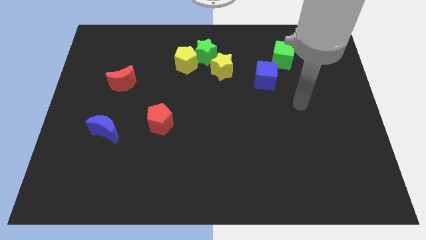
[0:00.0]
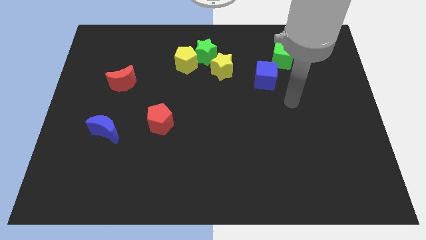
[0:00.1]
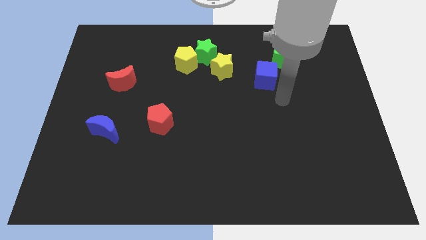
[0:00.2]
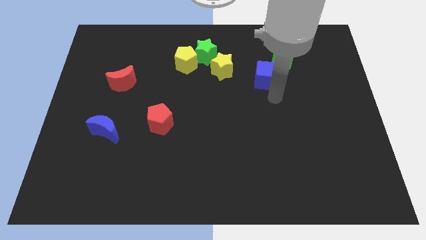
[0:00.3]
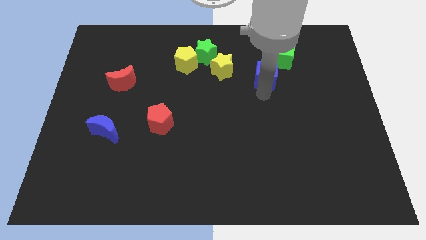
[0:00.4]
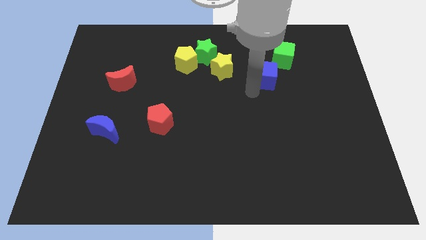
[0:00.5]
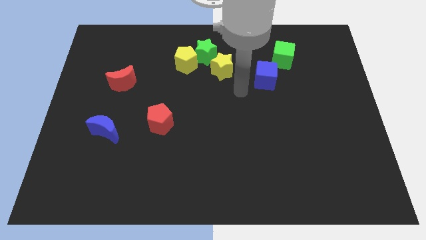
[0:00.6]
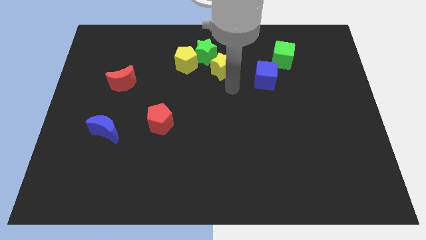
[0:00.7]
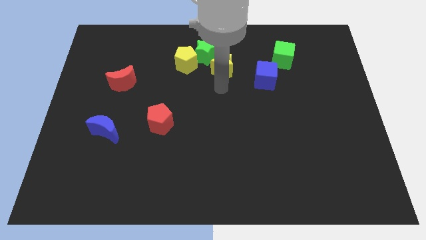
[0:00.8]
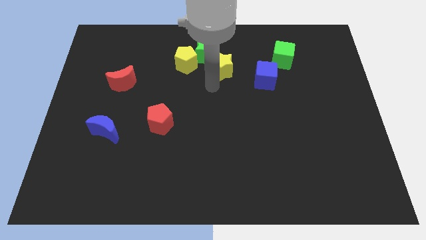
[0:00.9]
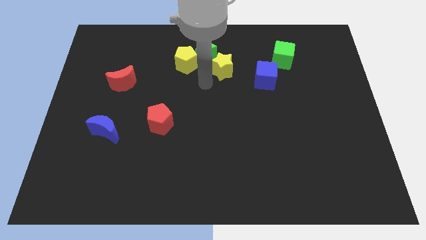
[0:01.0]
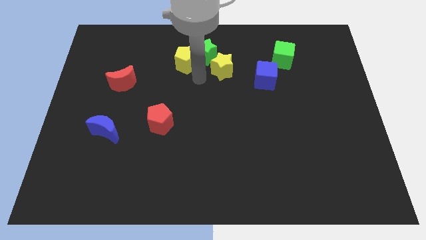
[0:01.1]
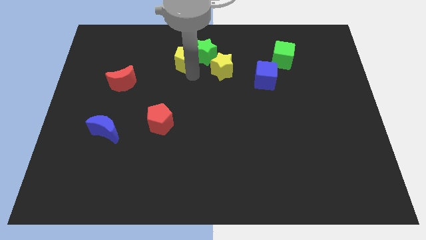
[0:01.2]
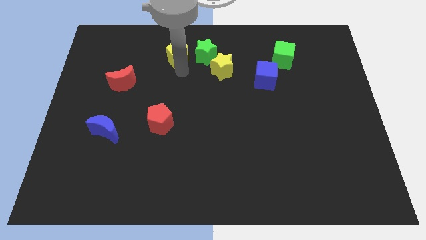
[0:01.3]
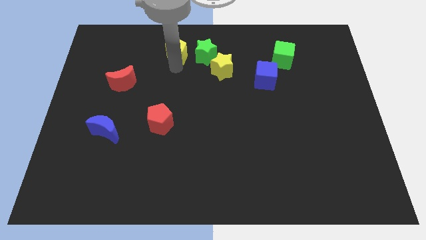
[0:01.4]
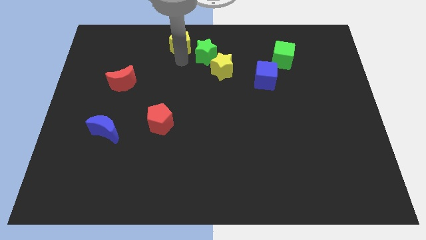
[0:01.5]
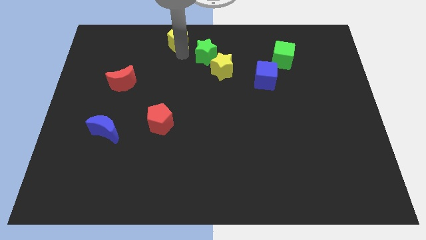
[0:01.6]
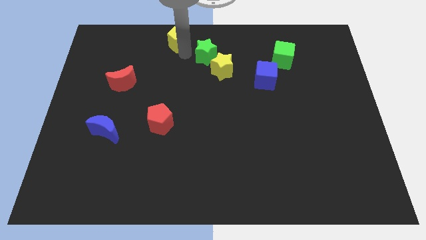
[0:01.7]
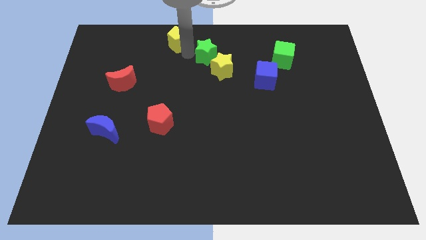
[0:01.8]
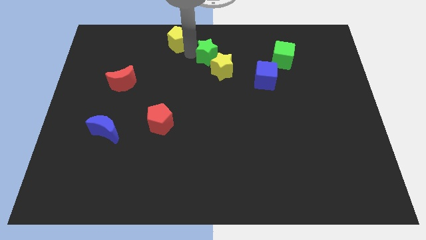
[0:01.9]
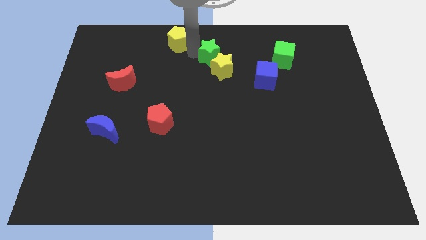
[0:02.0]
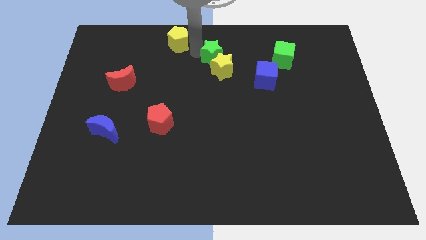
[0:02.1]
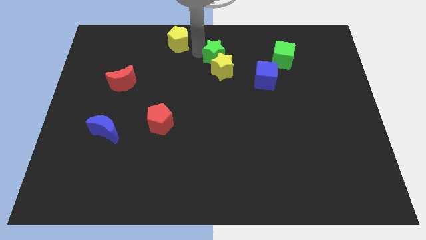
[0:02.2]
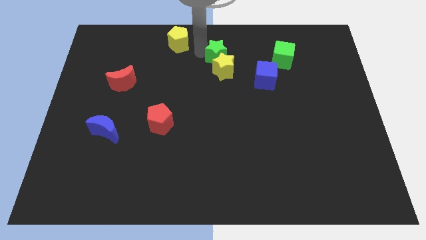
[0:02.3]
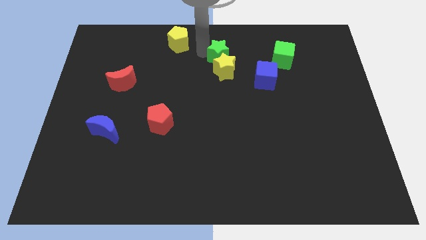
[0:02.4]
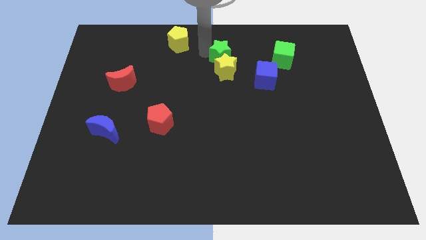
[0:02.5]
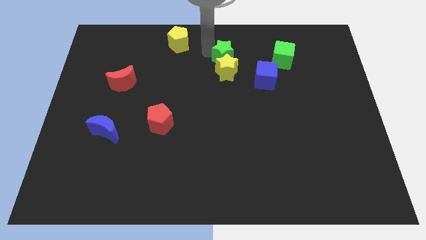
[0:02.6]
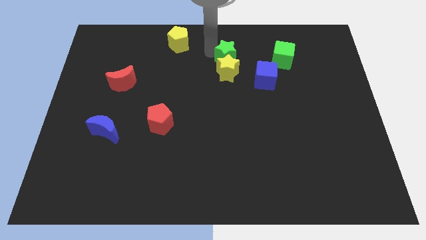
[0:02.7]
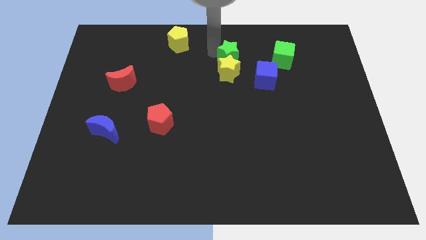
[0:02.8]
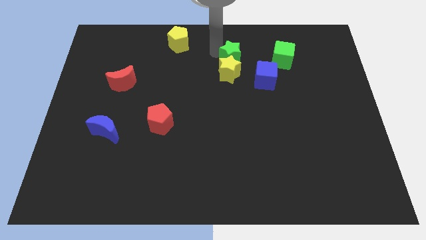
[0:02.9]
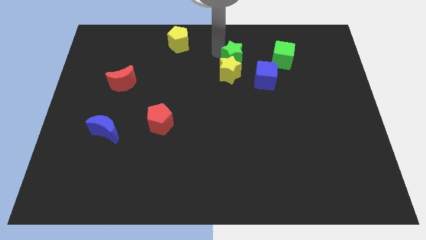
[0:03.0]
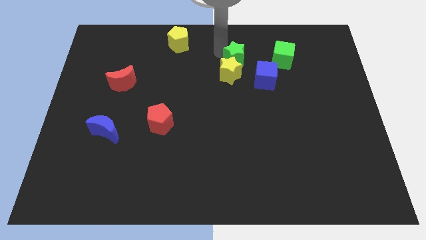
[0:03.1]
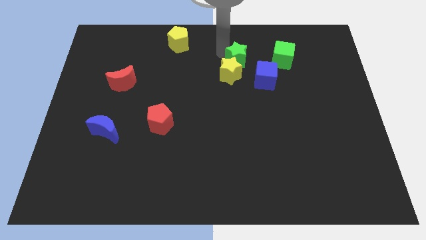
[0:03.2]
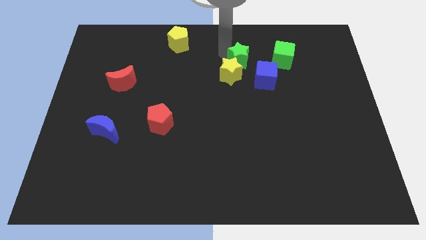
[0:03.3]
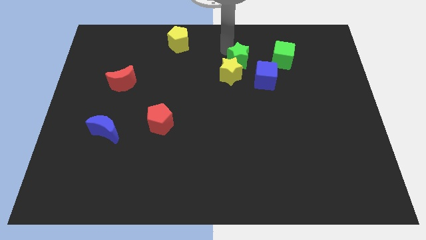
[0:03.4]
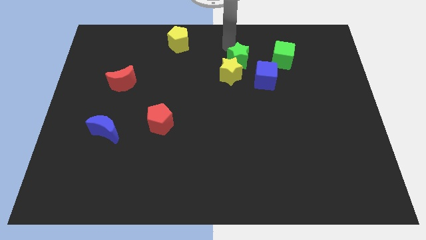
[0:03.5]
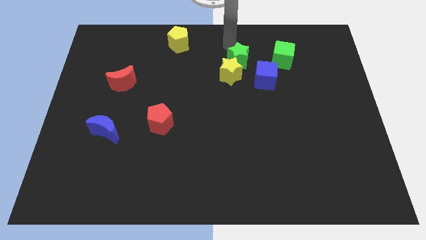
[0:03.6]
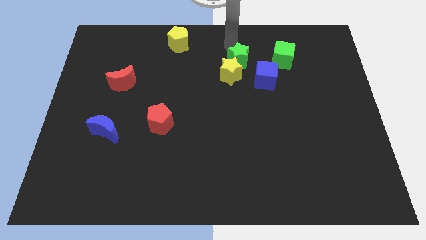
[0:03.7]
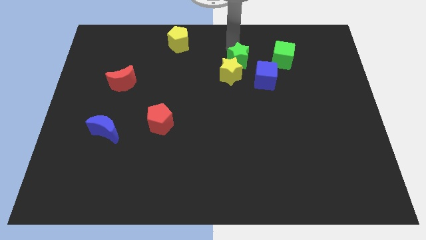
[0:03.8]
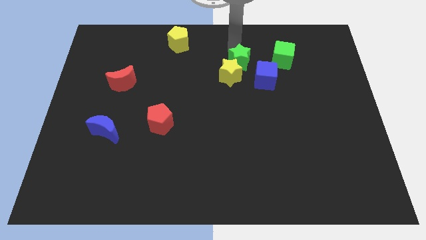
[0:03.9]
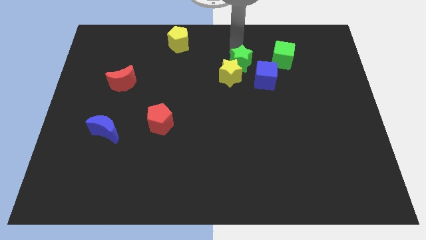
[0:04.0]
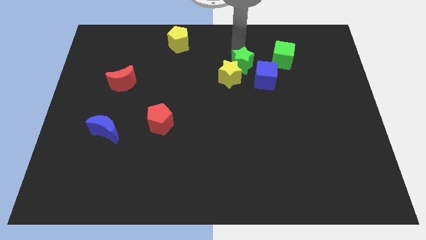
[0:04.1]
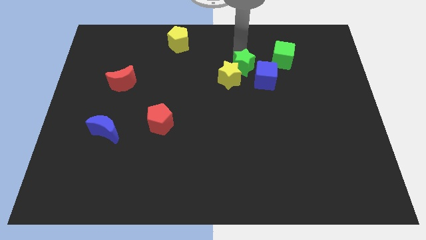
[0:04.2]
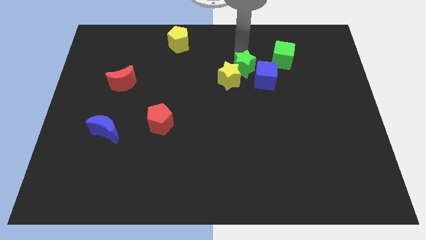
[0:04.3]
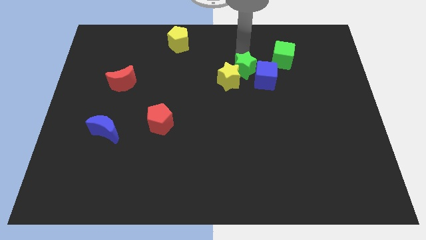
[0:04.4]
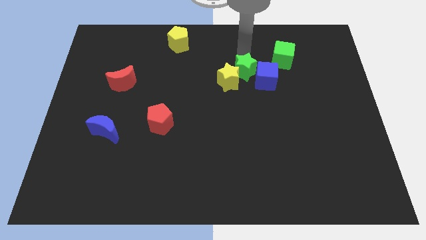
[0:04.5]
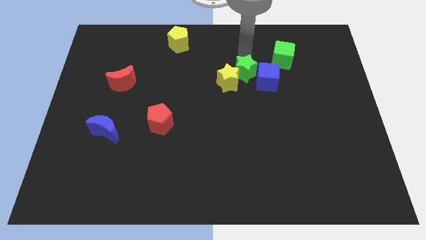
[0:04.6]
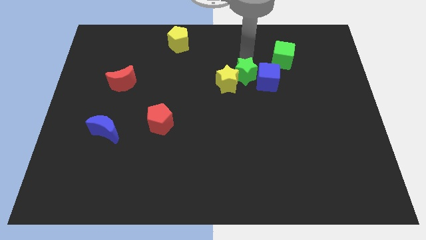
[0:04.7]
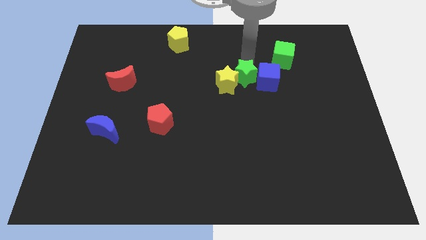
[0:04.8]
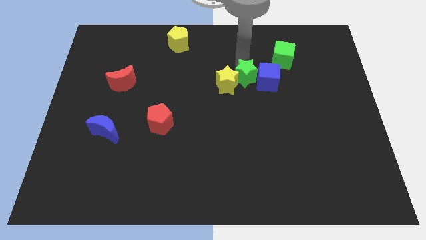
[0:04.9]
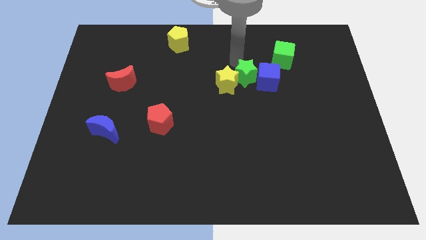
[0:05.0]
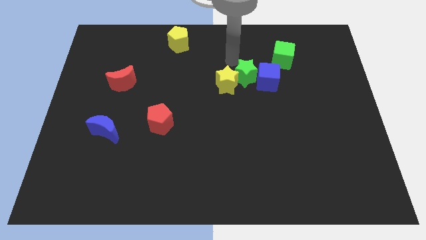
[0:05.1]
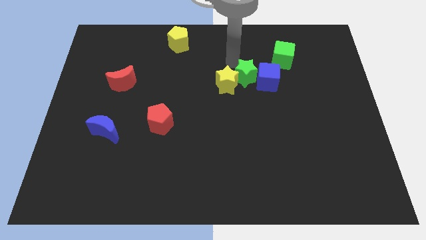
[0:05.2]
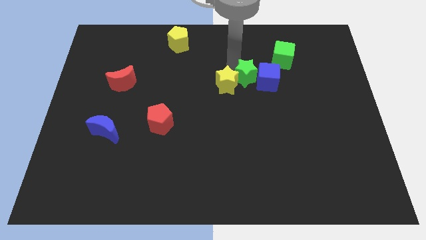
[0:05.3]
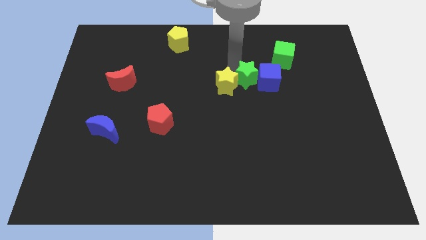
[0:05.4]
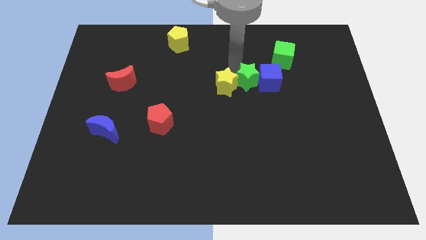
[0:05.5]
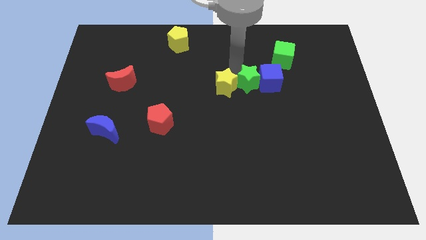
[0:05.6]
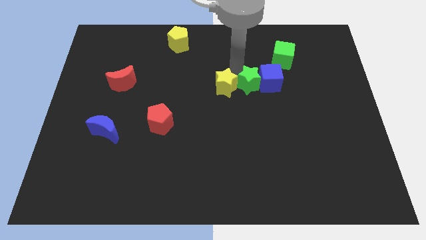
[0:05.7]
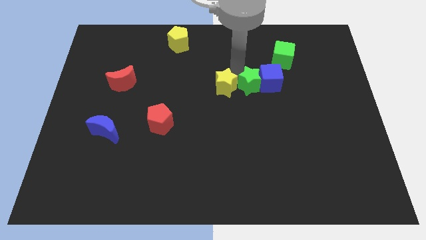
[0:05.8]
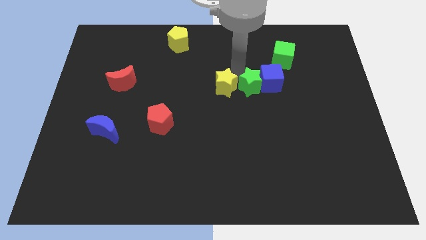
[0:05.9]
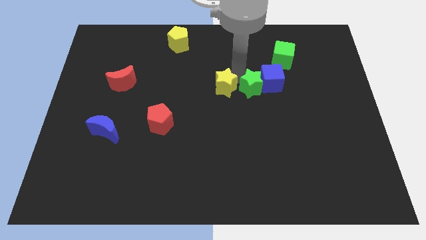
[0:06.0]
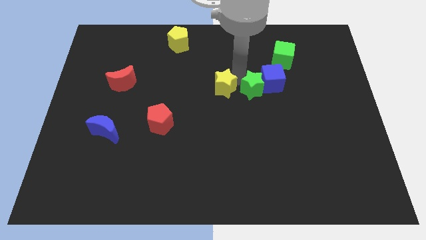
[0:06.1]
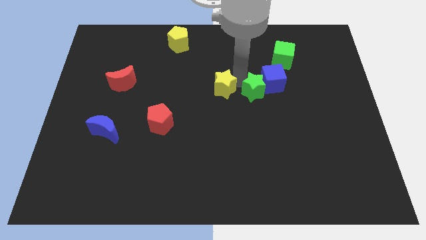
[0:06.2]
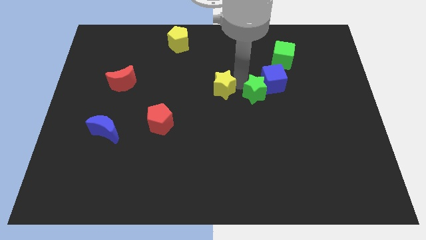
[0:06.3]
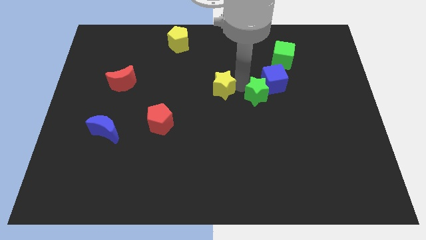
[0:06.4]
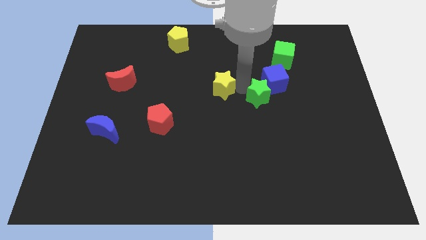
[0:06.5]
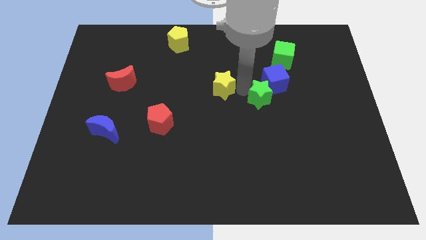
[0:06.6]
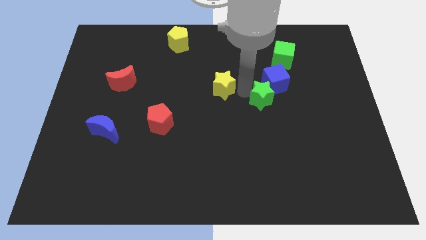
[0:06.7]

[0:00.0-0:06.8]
push the green star down and to the right diagonally

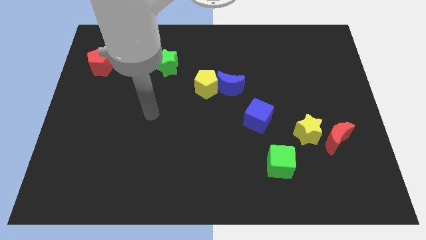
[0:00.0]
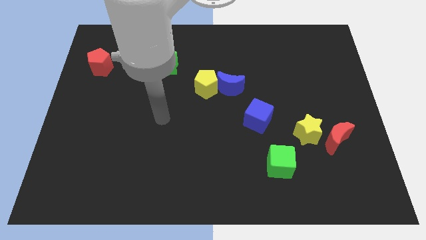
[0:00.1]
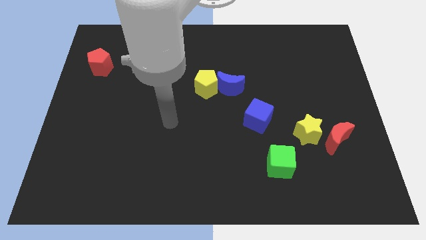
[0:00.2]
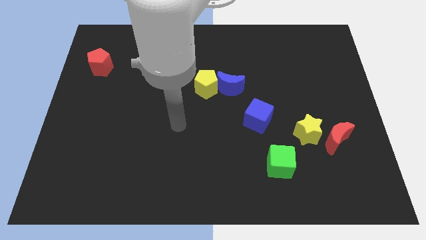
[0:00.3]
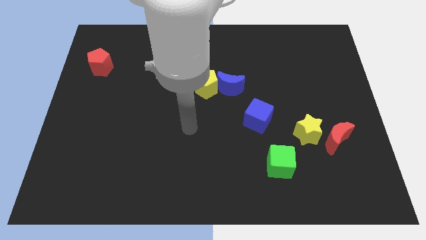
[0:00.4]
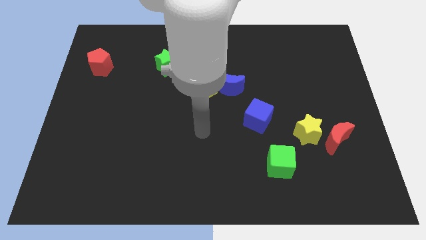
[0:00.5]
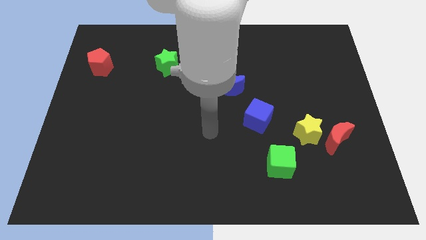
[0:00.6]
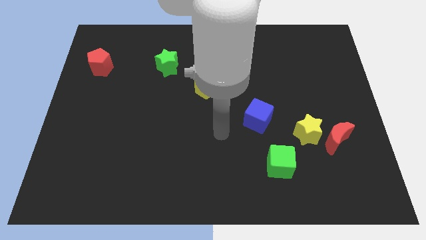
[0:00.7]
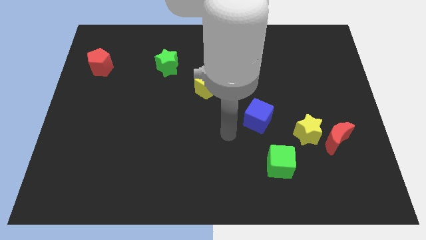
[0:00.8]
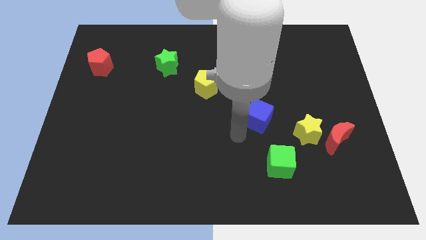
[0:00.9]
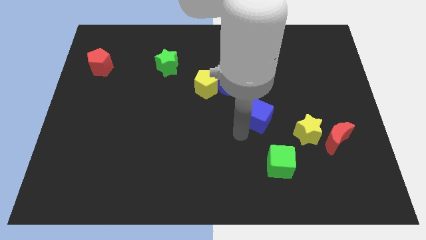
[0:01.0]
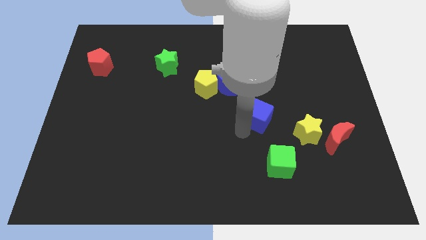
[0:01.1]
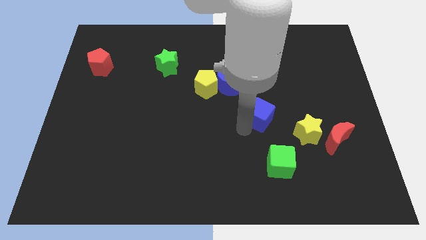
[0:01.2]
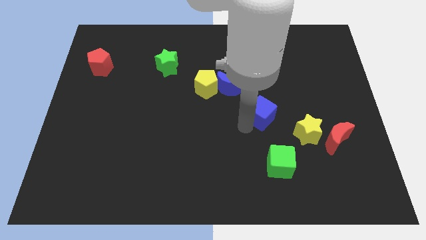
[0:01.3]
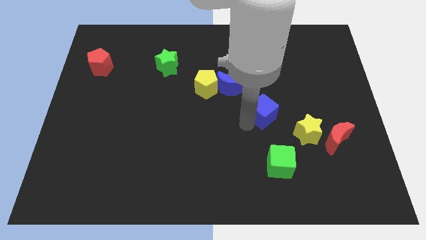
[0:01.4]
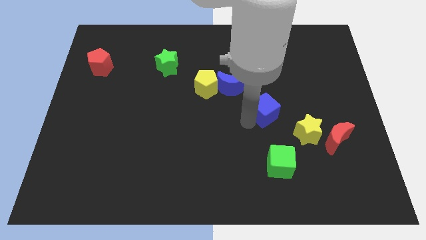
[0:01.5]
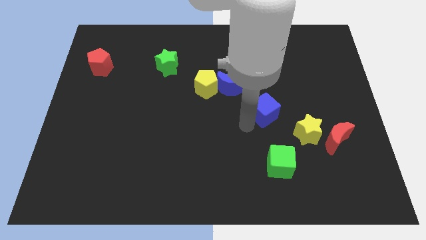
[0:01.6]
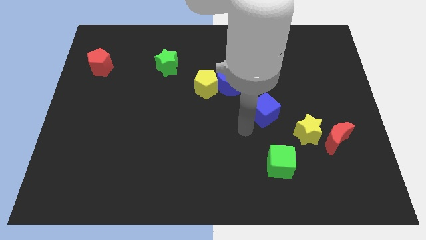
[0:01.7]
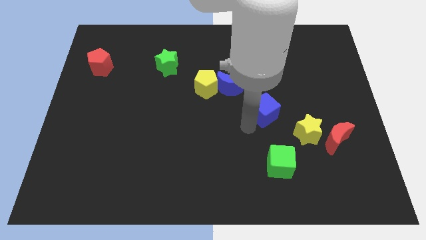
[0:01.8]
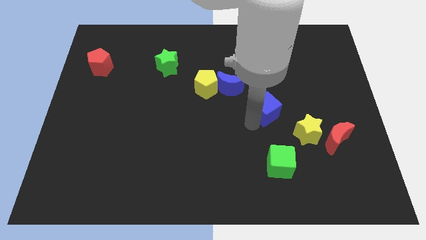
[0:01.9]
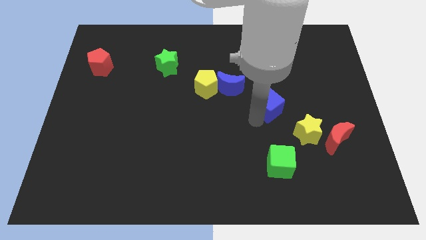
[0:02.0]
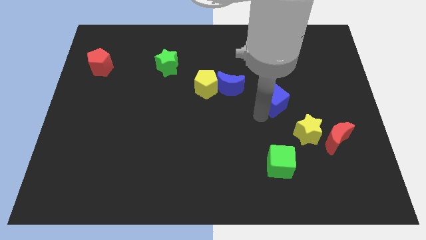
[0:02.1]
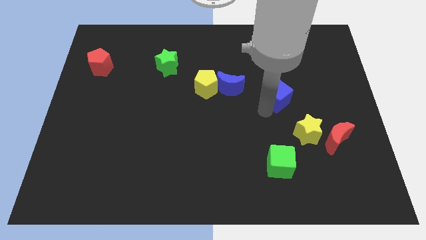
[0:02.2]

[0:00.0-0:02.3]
push the blue cube upwards and then to the right a little
